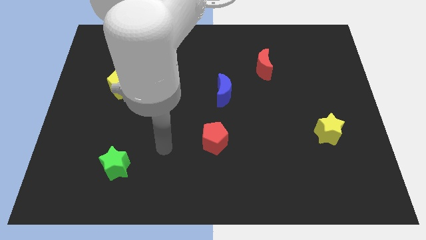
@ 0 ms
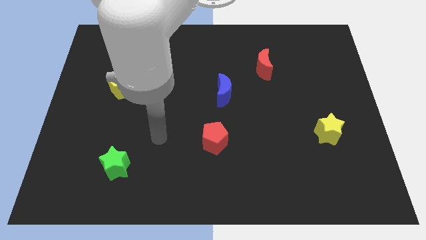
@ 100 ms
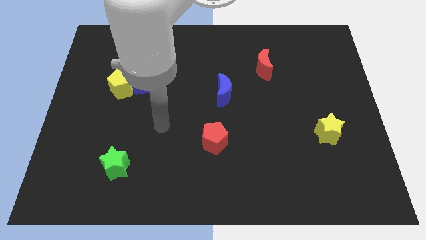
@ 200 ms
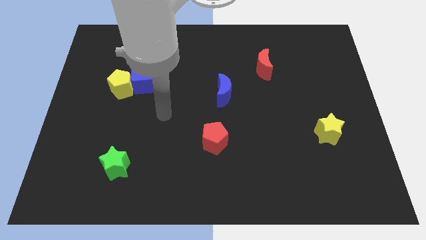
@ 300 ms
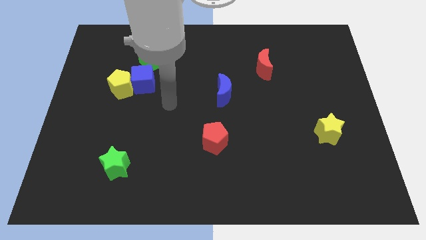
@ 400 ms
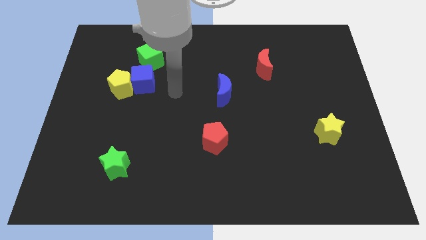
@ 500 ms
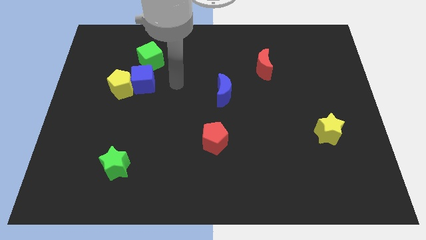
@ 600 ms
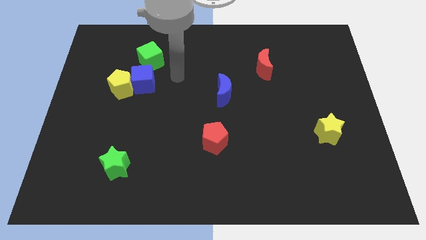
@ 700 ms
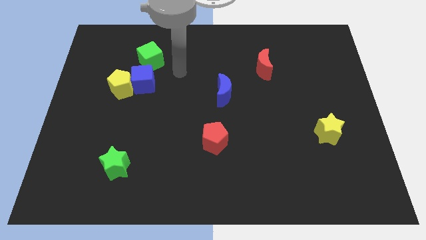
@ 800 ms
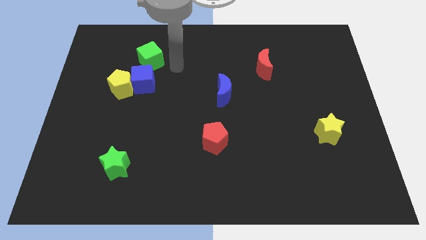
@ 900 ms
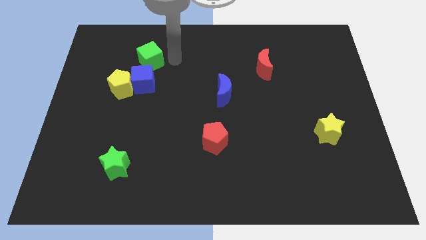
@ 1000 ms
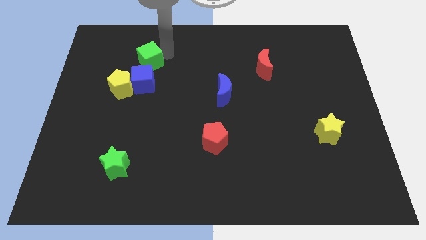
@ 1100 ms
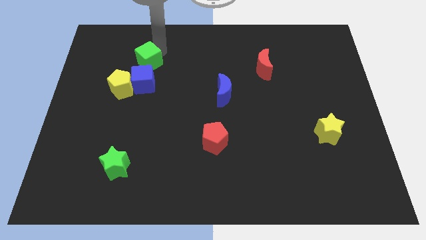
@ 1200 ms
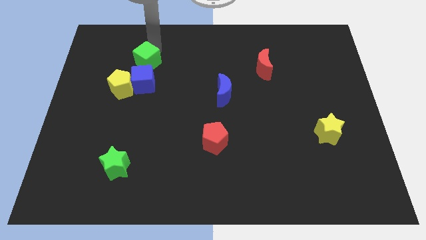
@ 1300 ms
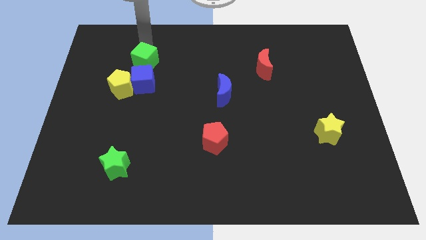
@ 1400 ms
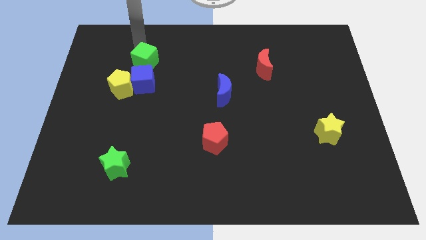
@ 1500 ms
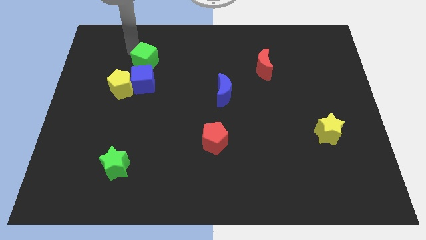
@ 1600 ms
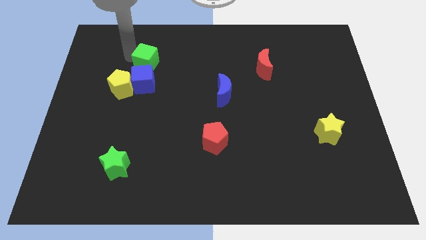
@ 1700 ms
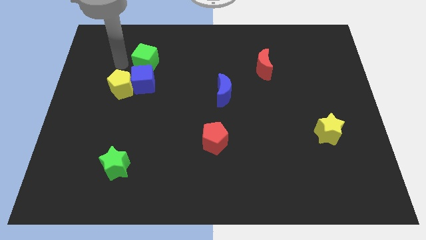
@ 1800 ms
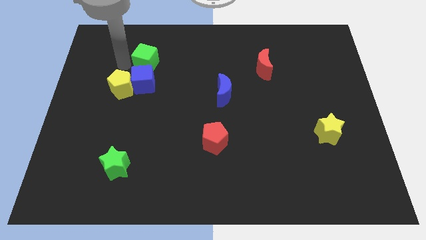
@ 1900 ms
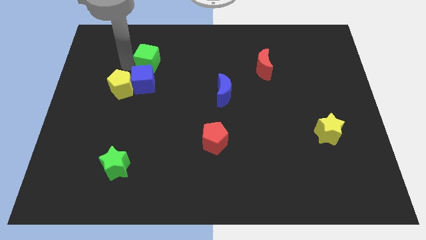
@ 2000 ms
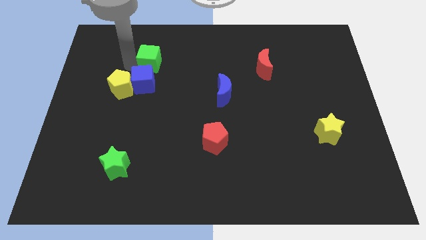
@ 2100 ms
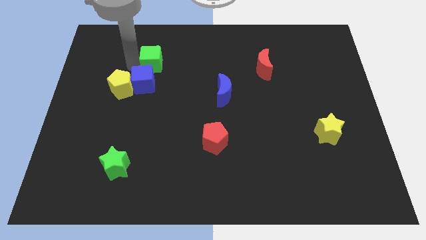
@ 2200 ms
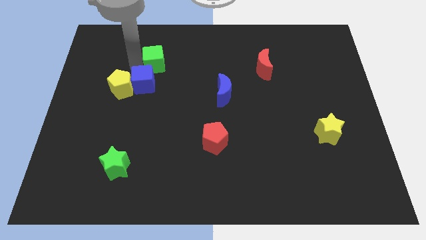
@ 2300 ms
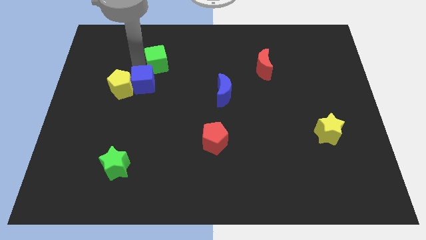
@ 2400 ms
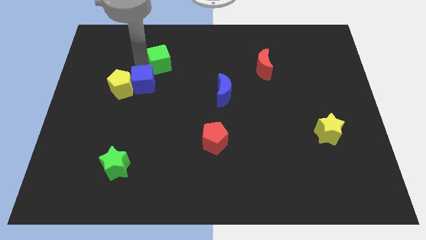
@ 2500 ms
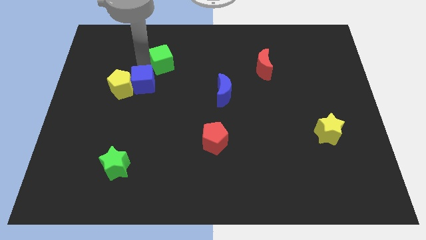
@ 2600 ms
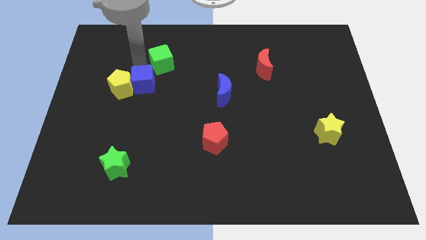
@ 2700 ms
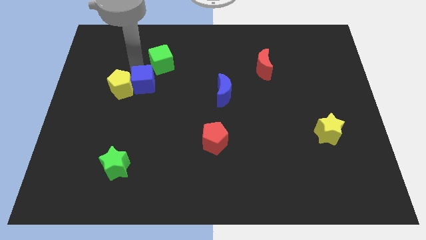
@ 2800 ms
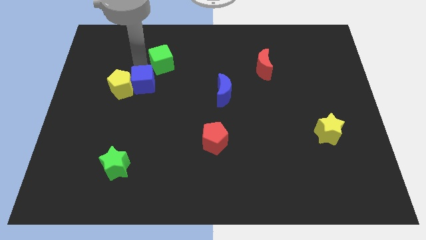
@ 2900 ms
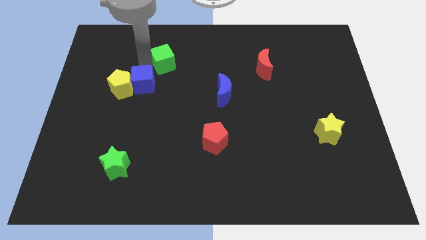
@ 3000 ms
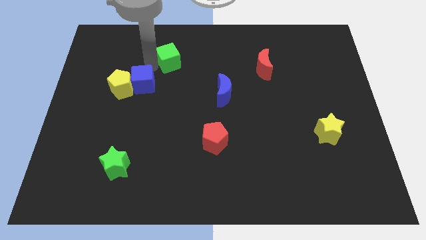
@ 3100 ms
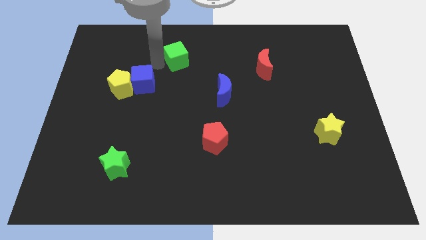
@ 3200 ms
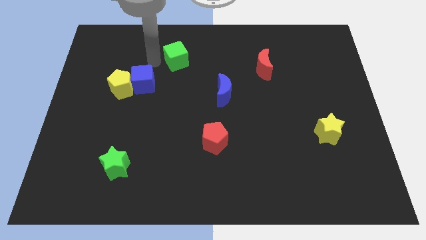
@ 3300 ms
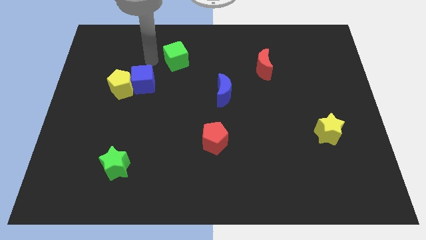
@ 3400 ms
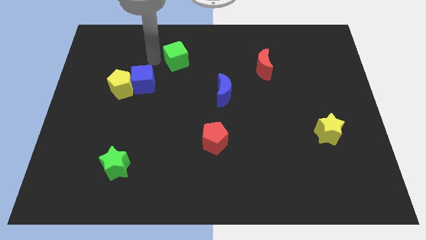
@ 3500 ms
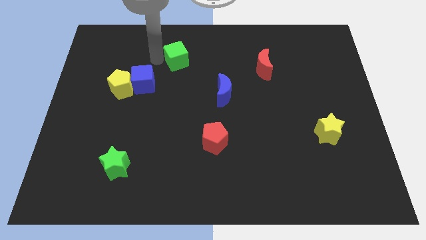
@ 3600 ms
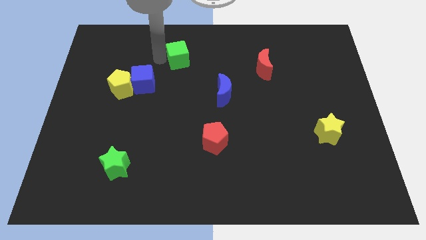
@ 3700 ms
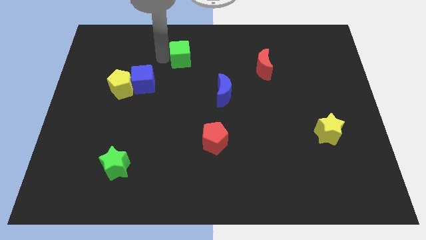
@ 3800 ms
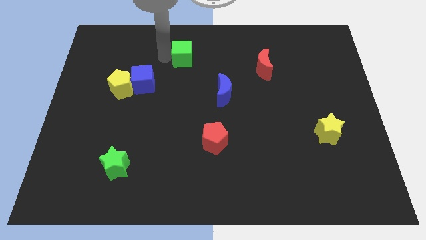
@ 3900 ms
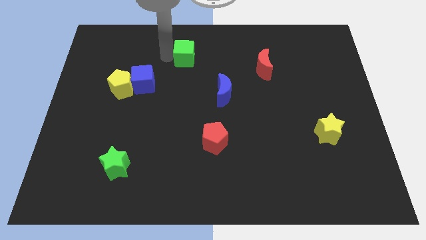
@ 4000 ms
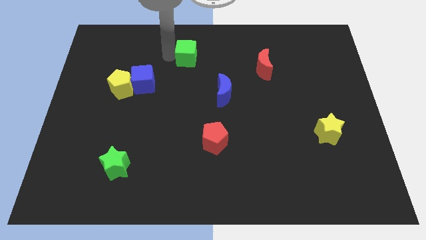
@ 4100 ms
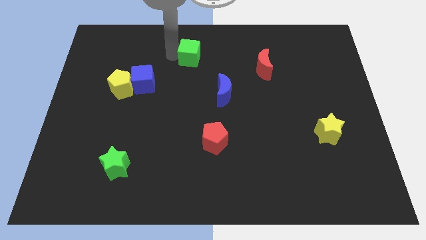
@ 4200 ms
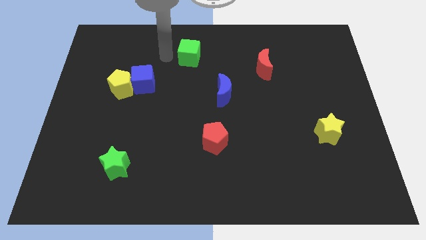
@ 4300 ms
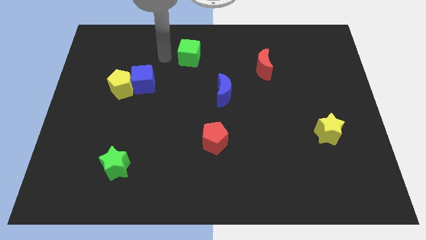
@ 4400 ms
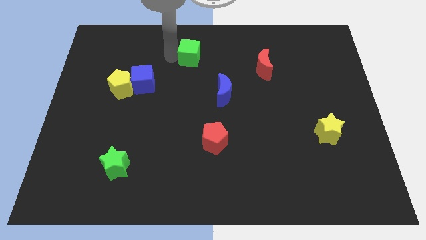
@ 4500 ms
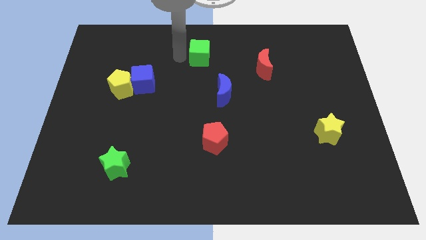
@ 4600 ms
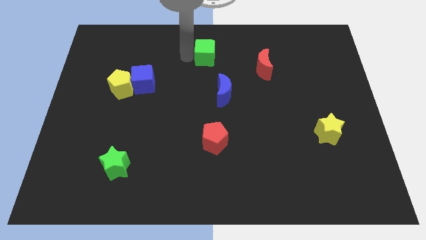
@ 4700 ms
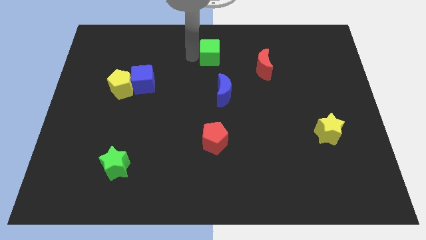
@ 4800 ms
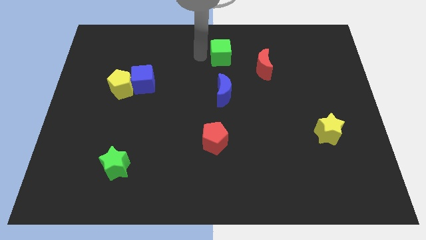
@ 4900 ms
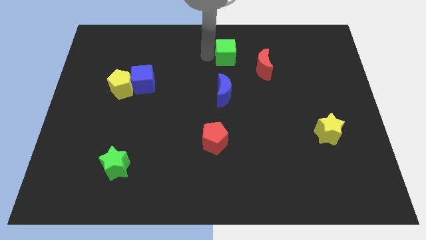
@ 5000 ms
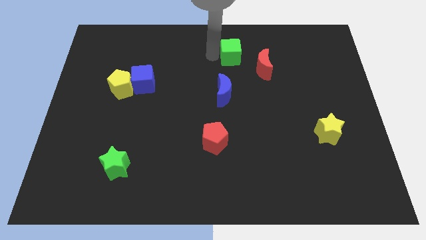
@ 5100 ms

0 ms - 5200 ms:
push the green cube right

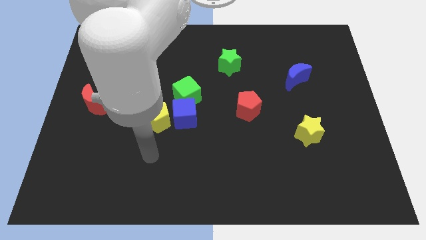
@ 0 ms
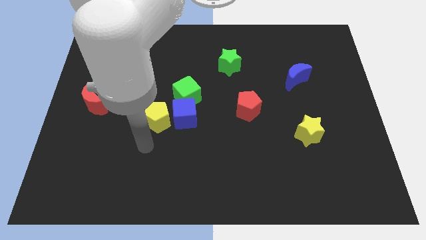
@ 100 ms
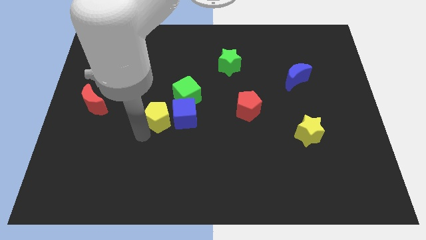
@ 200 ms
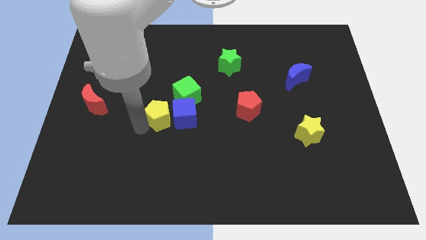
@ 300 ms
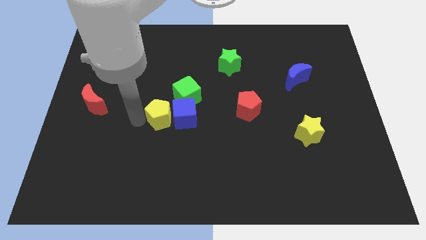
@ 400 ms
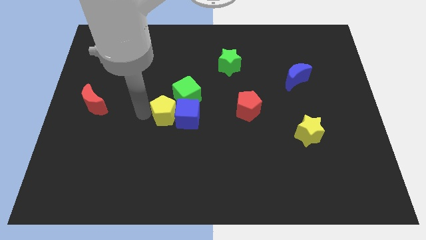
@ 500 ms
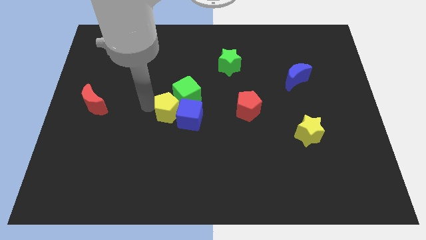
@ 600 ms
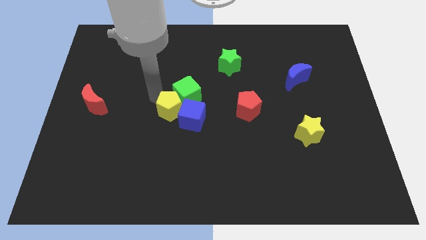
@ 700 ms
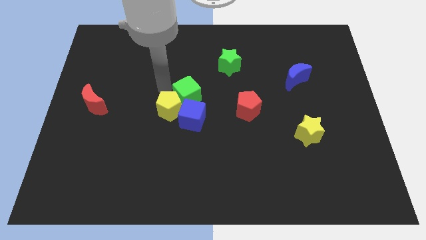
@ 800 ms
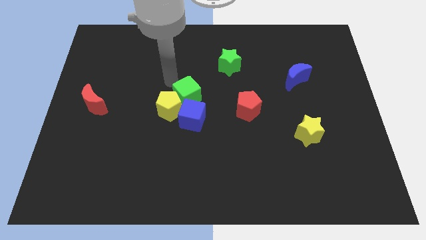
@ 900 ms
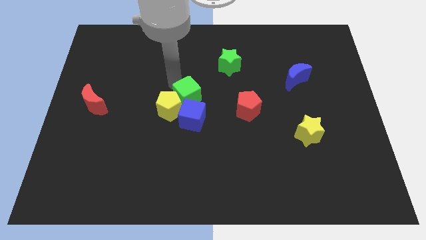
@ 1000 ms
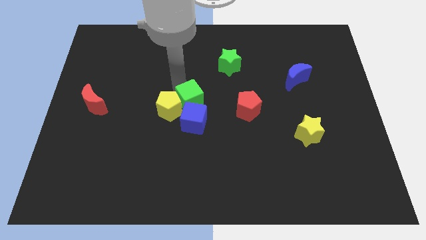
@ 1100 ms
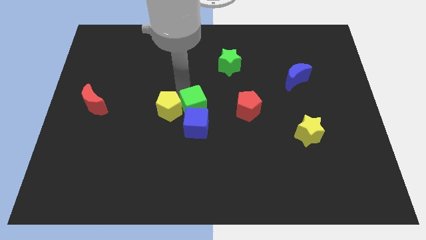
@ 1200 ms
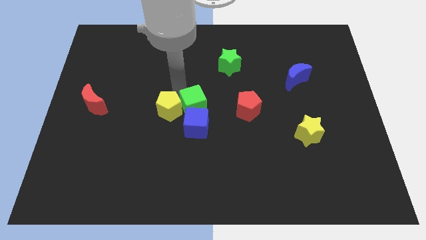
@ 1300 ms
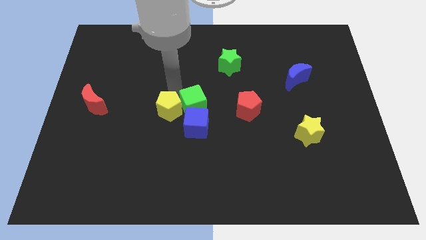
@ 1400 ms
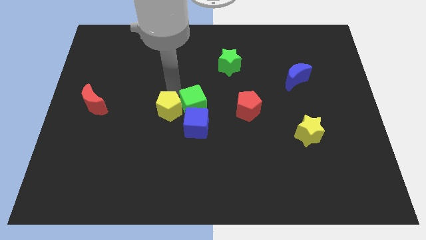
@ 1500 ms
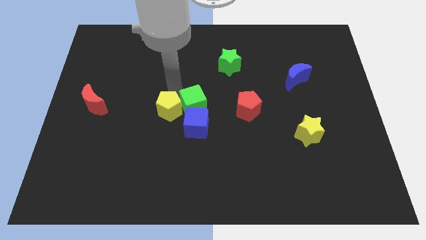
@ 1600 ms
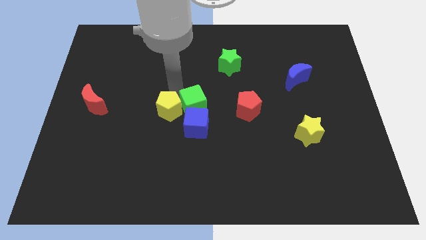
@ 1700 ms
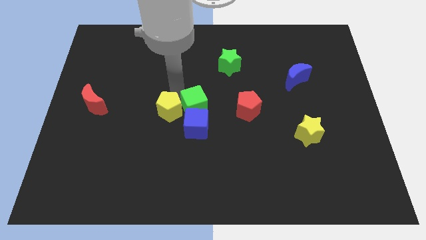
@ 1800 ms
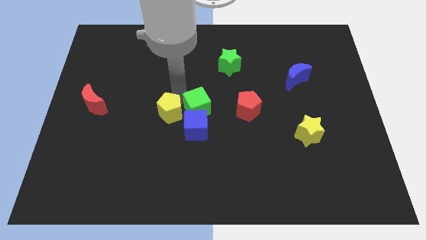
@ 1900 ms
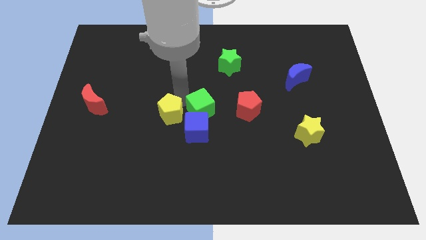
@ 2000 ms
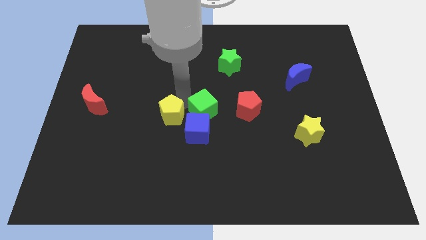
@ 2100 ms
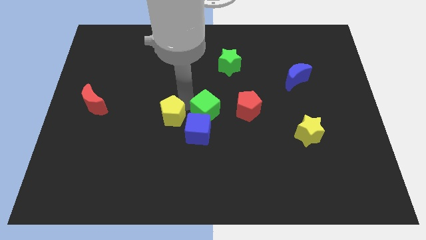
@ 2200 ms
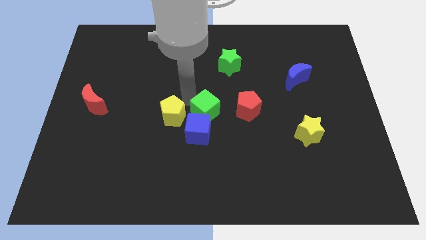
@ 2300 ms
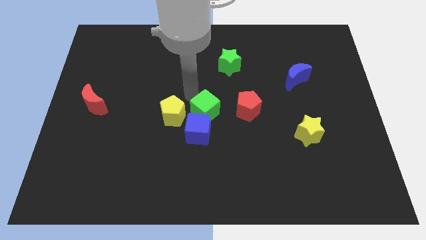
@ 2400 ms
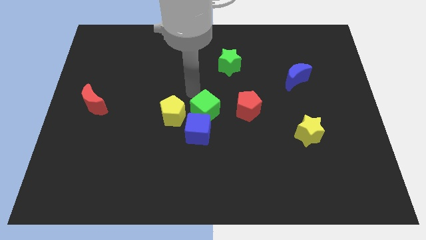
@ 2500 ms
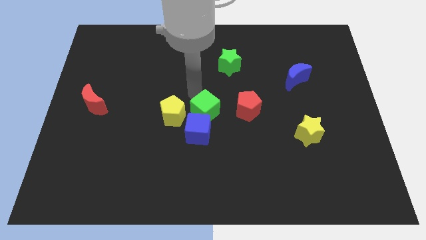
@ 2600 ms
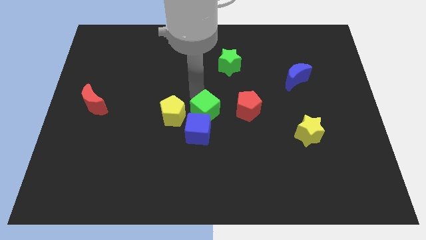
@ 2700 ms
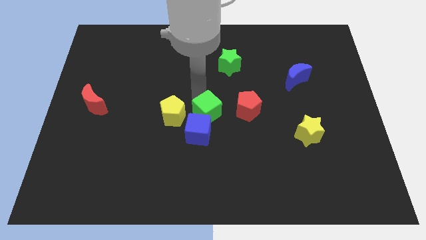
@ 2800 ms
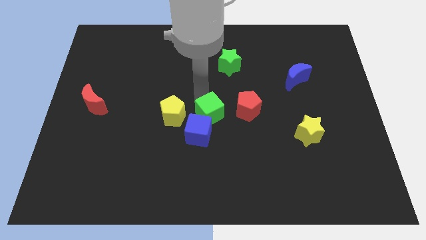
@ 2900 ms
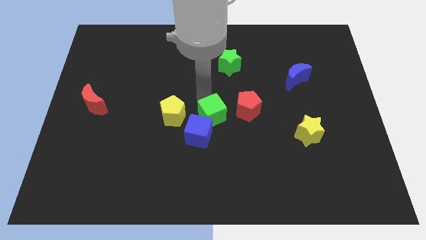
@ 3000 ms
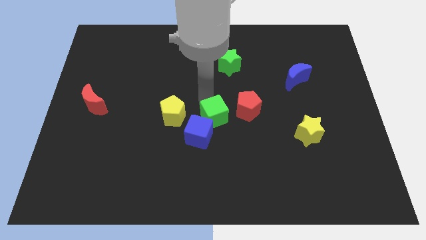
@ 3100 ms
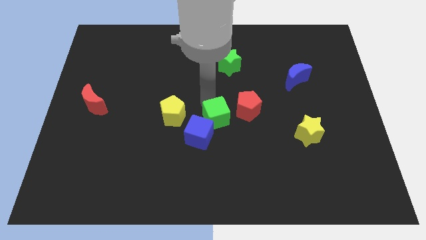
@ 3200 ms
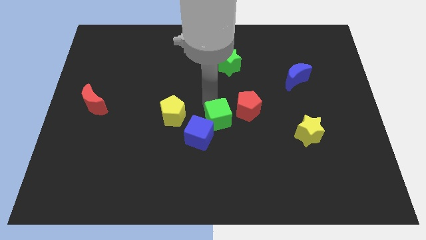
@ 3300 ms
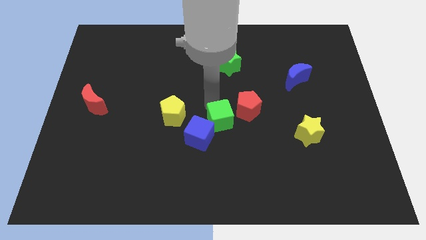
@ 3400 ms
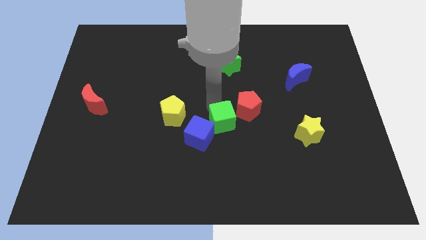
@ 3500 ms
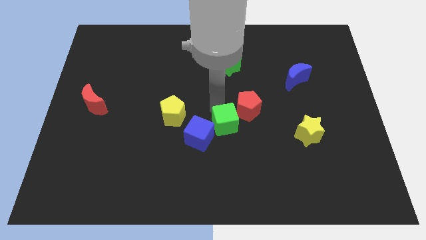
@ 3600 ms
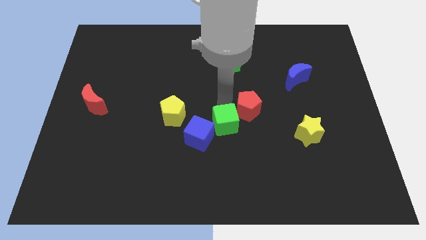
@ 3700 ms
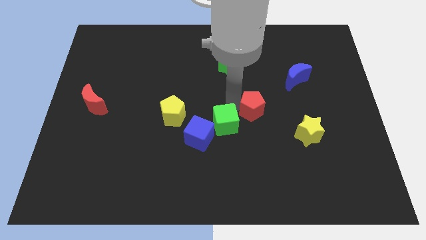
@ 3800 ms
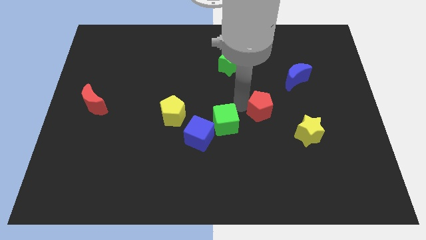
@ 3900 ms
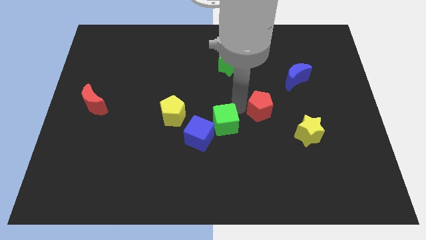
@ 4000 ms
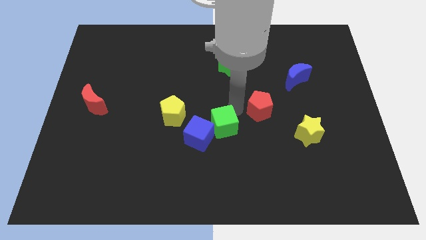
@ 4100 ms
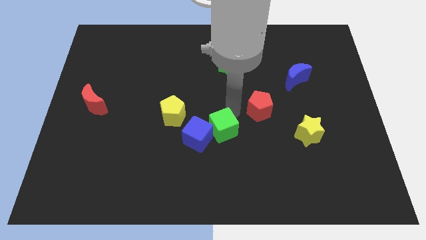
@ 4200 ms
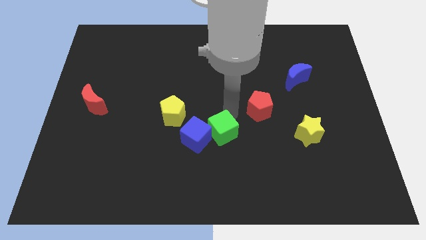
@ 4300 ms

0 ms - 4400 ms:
push the green cube a little downwards
